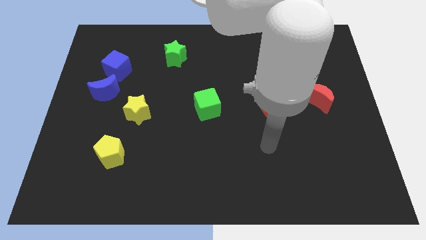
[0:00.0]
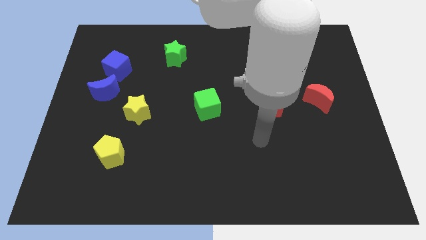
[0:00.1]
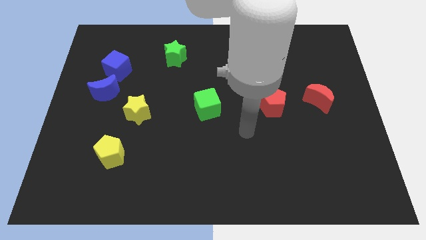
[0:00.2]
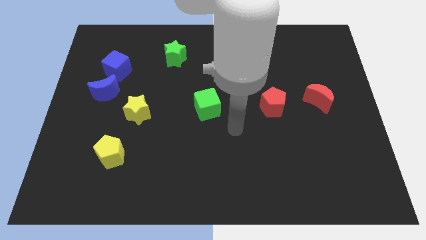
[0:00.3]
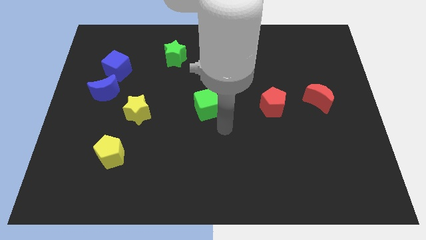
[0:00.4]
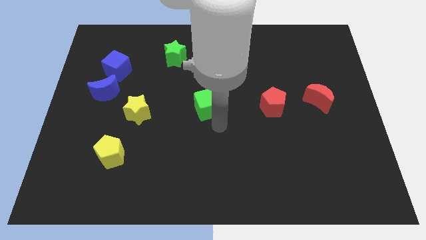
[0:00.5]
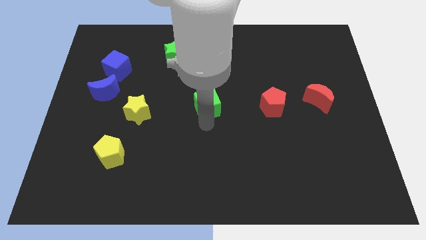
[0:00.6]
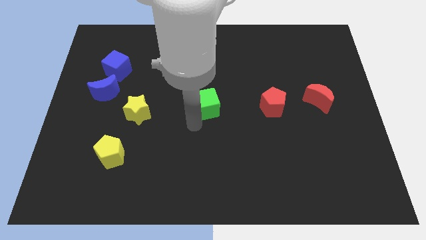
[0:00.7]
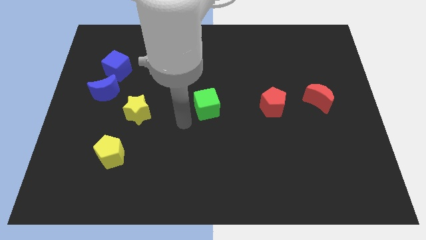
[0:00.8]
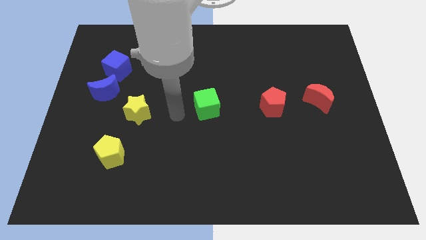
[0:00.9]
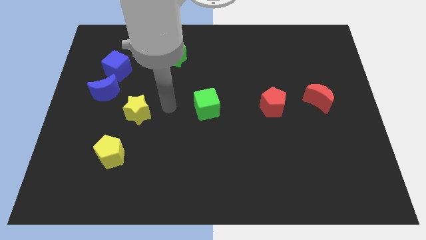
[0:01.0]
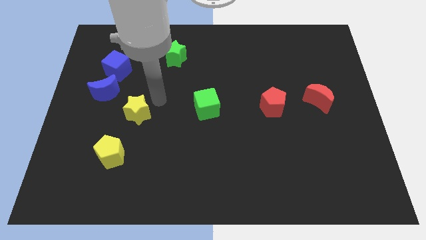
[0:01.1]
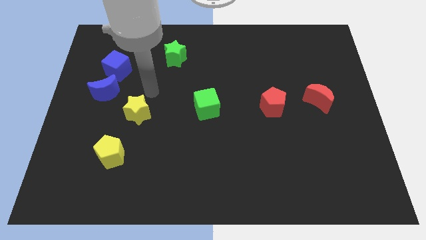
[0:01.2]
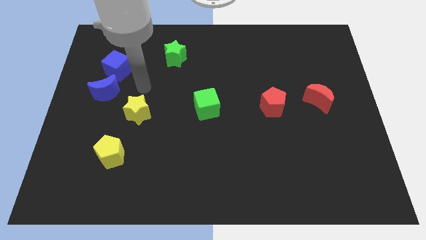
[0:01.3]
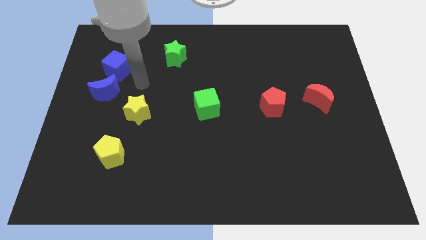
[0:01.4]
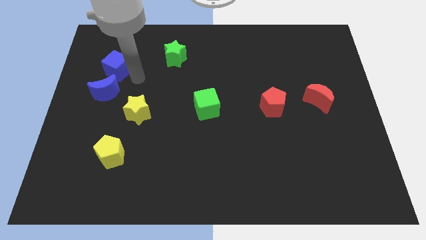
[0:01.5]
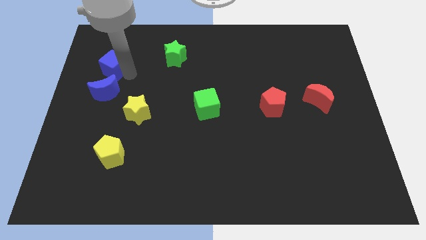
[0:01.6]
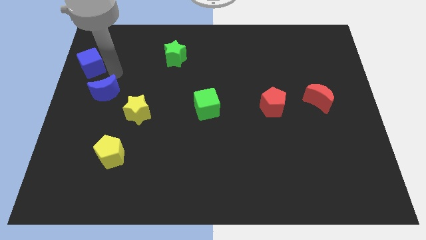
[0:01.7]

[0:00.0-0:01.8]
move the blue moon away from the blue cube

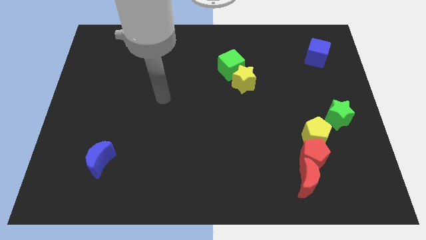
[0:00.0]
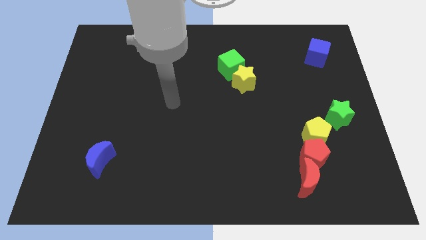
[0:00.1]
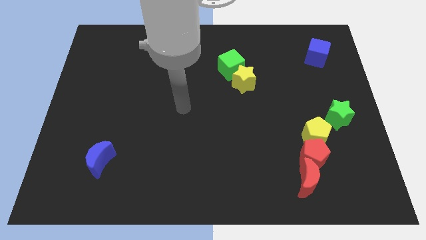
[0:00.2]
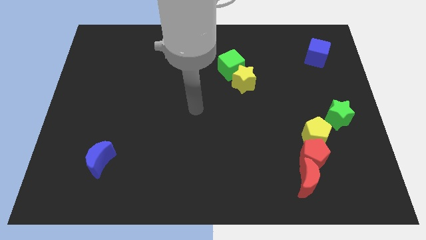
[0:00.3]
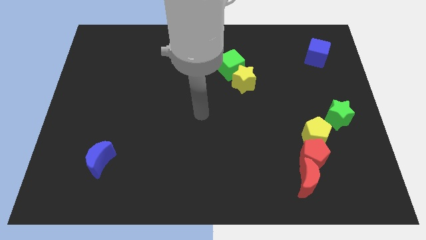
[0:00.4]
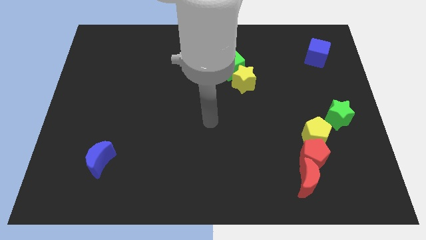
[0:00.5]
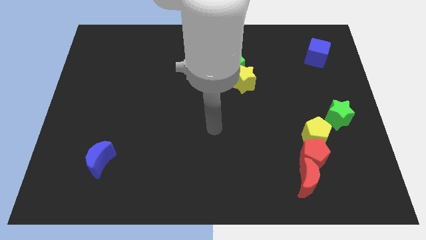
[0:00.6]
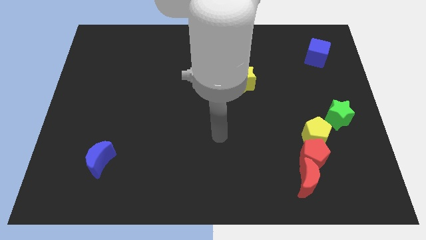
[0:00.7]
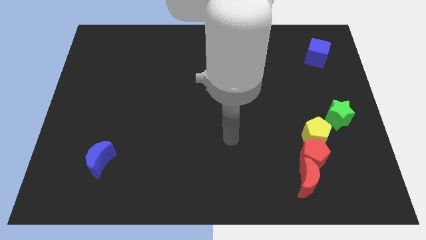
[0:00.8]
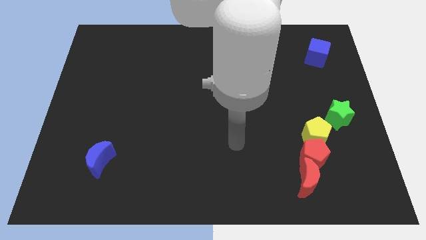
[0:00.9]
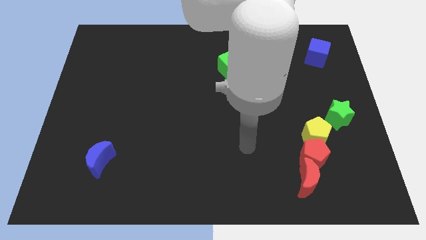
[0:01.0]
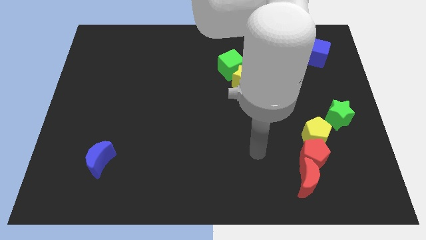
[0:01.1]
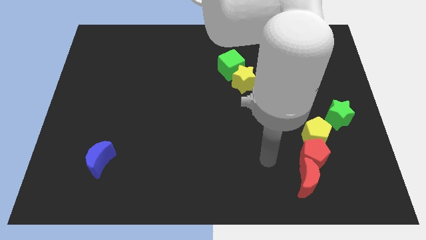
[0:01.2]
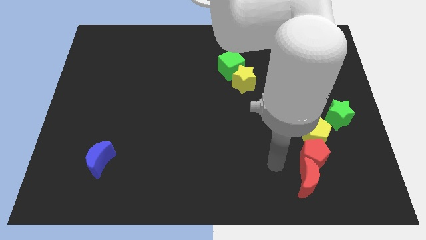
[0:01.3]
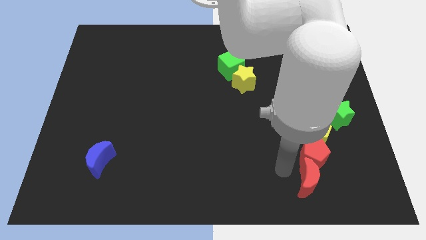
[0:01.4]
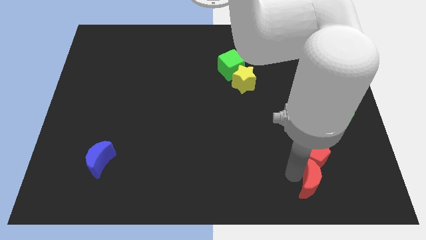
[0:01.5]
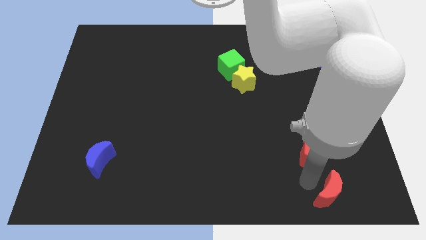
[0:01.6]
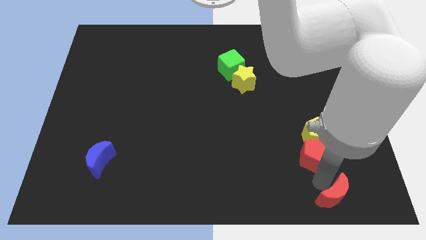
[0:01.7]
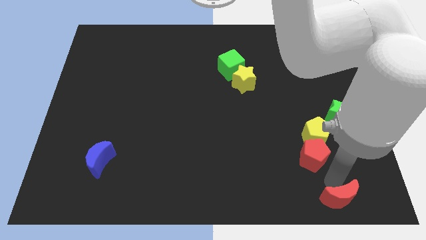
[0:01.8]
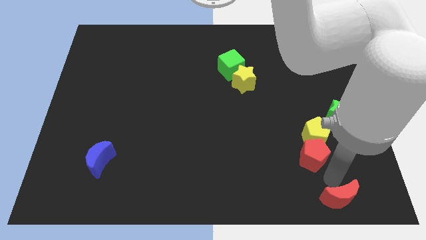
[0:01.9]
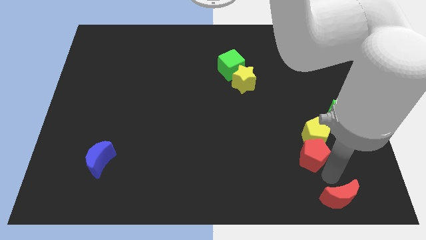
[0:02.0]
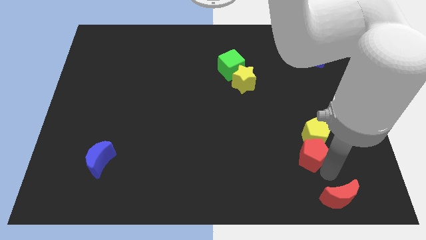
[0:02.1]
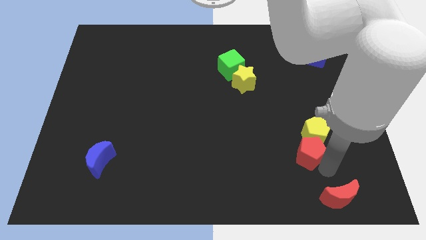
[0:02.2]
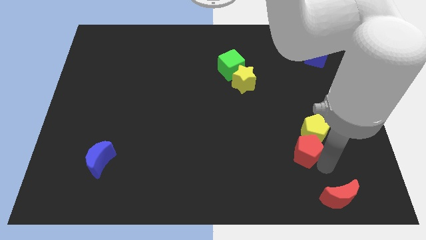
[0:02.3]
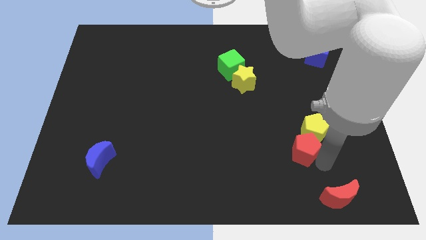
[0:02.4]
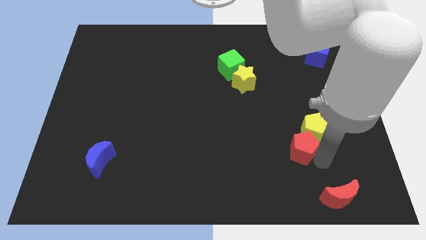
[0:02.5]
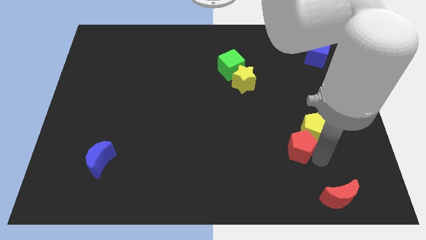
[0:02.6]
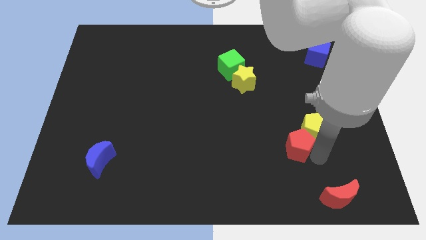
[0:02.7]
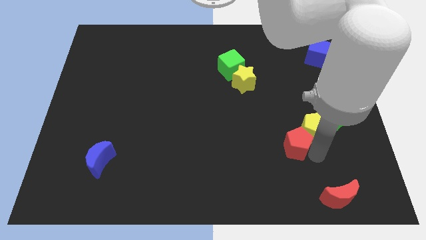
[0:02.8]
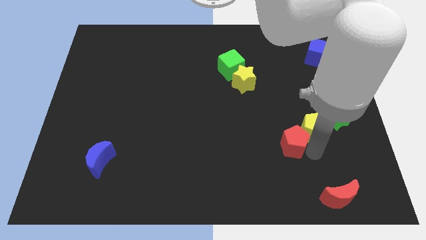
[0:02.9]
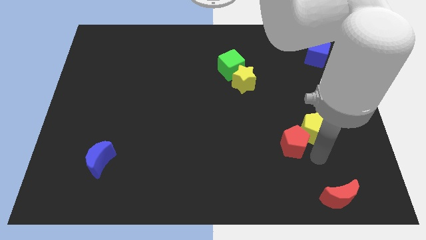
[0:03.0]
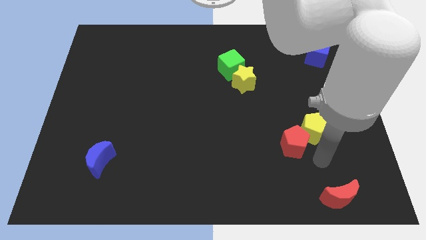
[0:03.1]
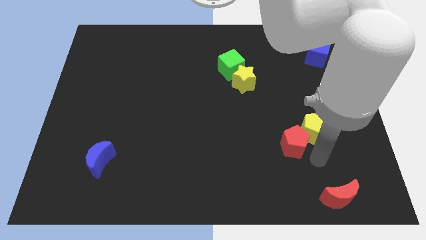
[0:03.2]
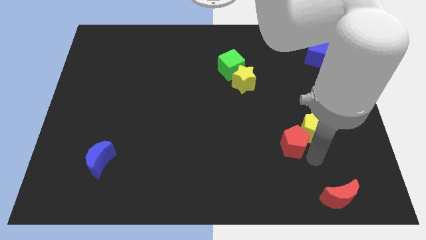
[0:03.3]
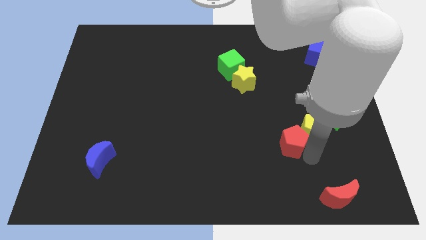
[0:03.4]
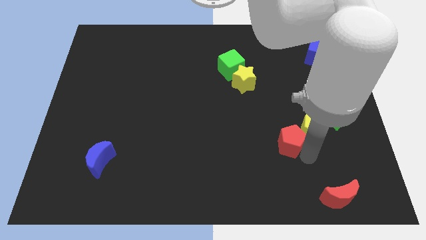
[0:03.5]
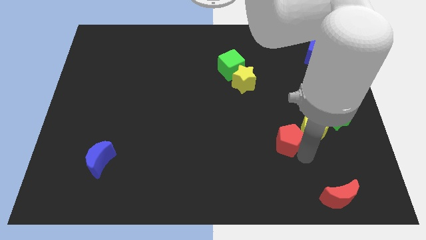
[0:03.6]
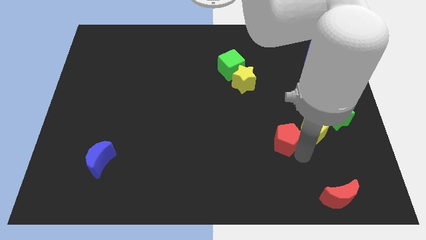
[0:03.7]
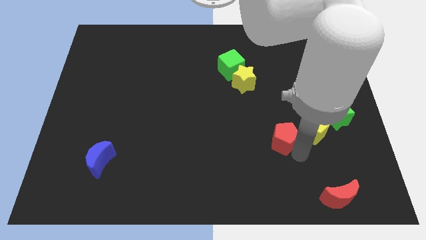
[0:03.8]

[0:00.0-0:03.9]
separate the red pentagon from the yellow pentagon and red moon

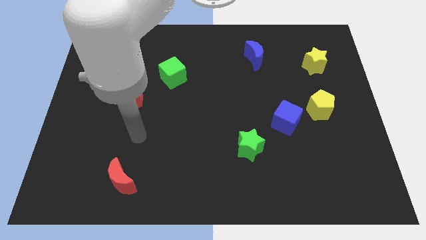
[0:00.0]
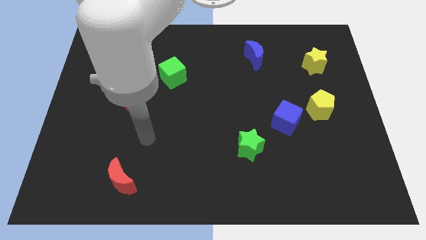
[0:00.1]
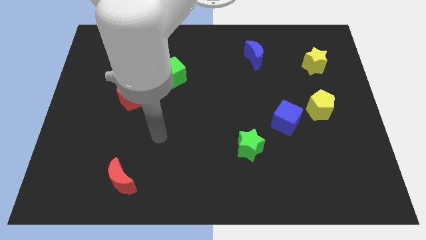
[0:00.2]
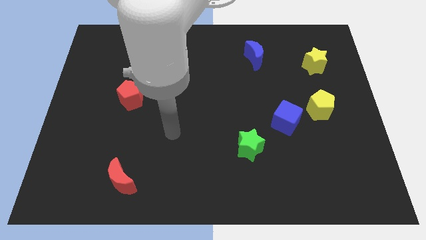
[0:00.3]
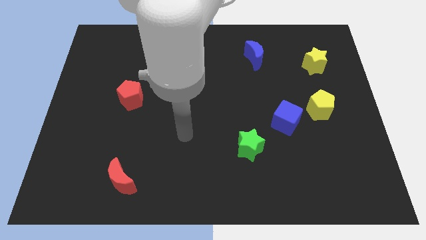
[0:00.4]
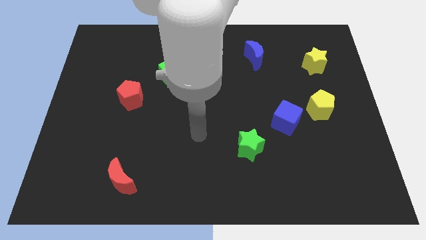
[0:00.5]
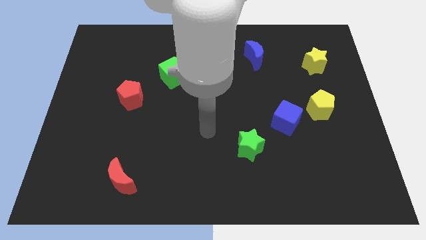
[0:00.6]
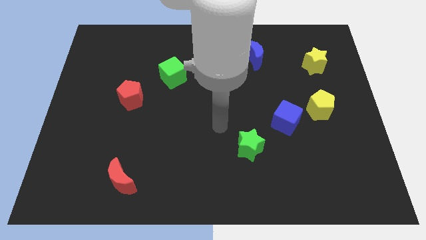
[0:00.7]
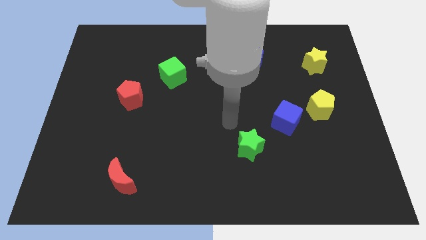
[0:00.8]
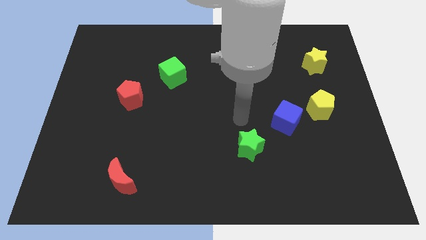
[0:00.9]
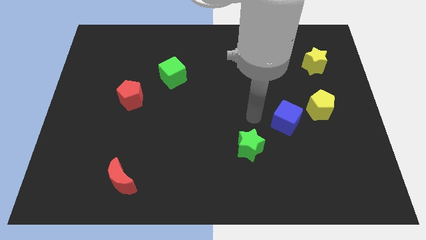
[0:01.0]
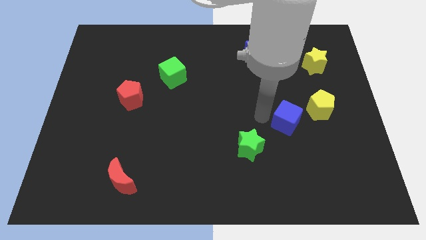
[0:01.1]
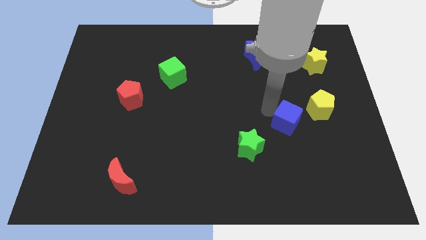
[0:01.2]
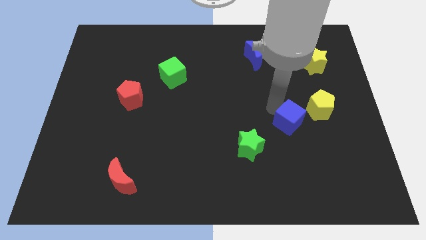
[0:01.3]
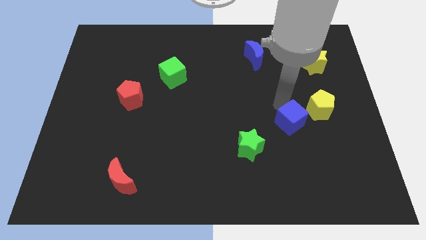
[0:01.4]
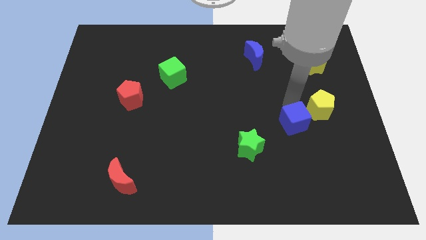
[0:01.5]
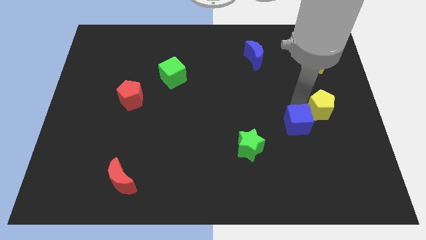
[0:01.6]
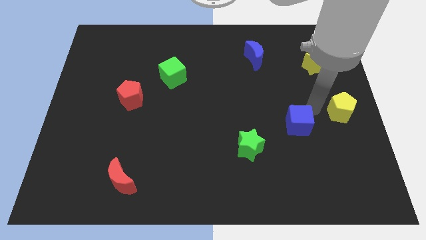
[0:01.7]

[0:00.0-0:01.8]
move the blue cube away from the yellow pentagon

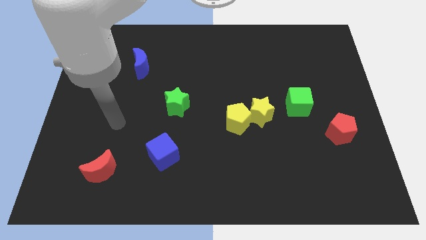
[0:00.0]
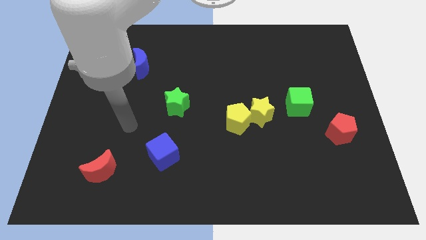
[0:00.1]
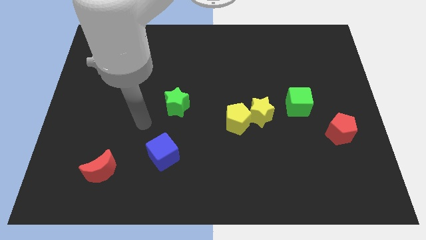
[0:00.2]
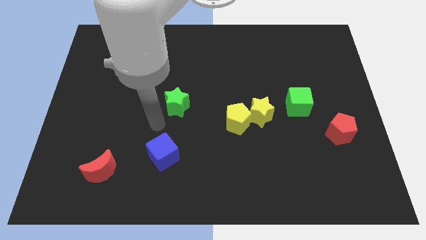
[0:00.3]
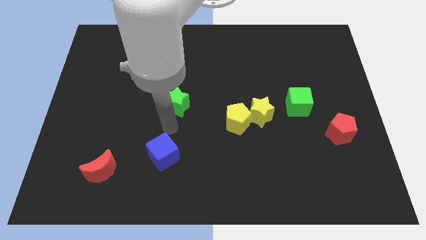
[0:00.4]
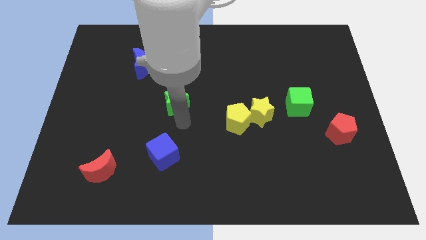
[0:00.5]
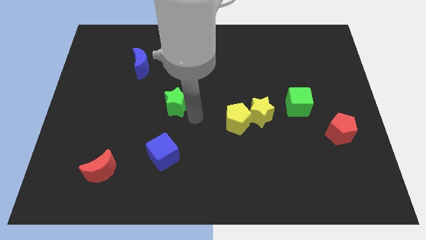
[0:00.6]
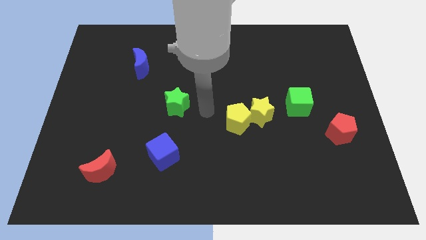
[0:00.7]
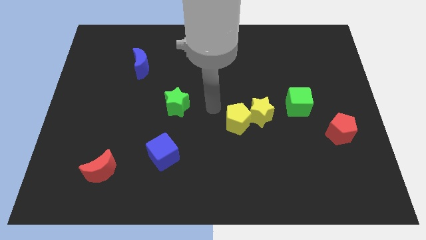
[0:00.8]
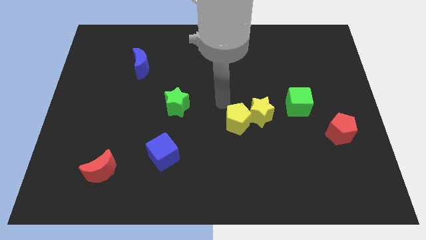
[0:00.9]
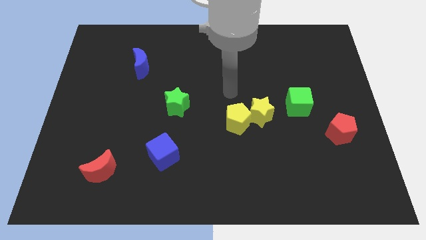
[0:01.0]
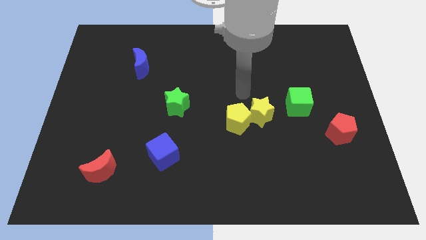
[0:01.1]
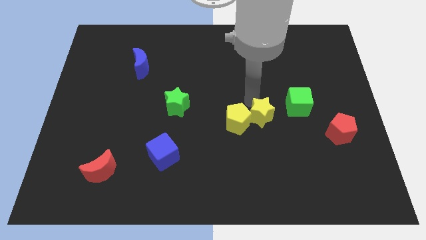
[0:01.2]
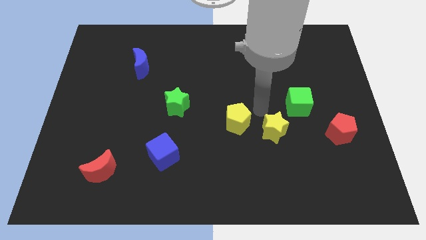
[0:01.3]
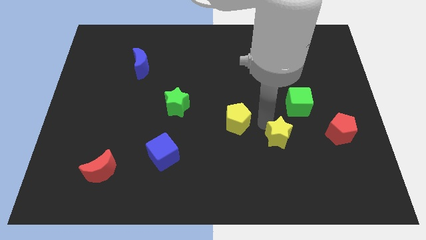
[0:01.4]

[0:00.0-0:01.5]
move the yellow pentagon away from the yellow star

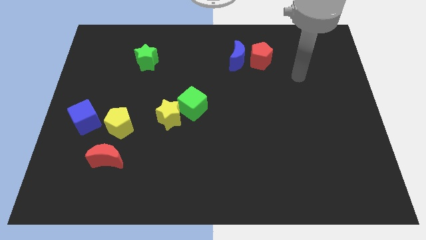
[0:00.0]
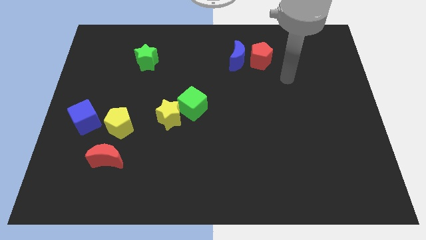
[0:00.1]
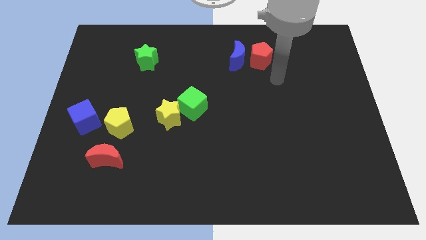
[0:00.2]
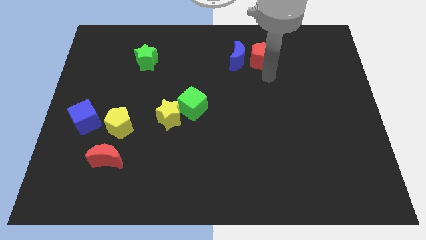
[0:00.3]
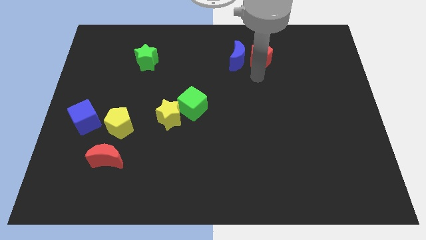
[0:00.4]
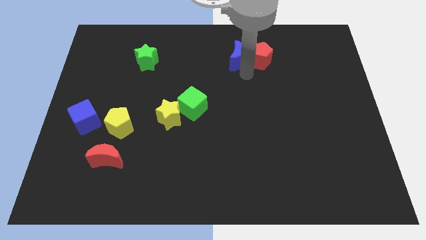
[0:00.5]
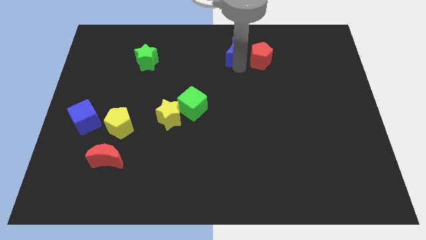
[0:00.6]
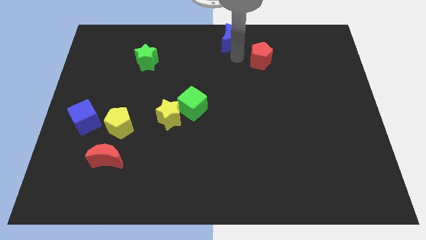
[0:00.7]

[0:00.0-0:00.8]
move the red pentagon away from the blue moon
